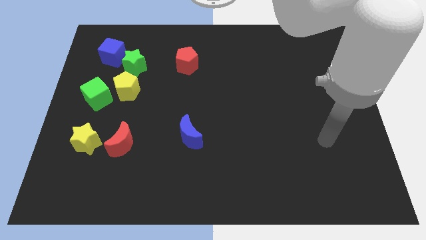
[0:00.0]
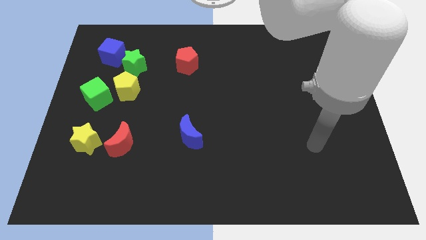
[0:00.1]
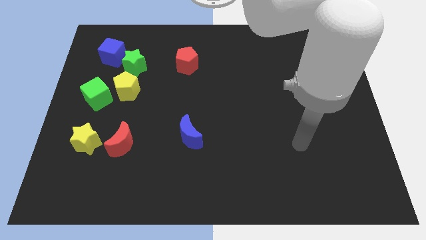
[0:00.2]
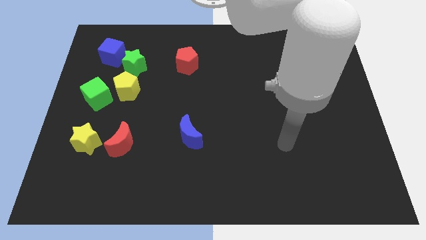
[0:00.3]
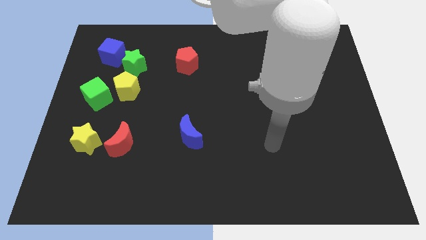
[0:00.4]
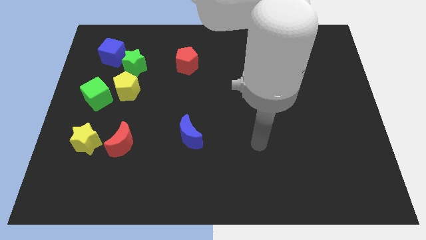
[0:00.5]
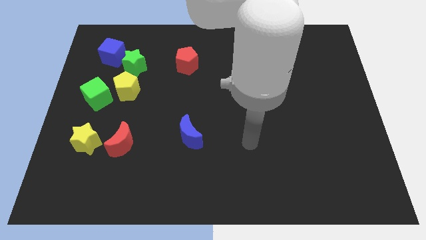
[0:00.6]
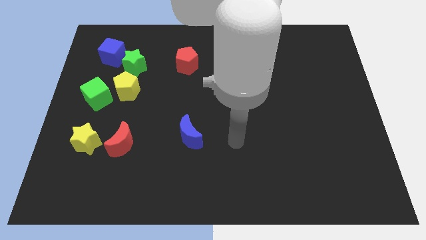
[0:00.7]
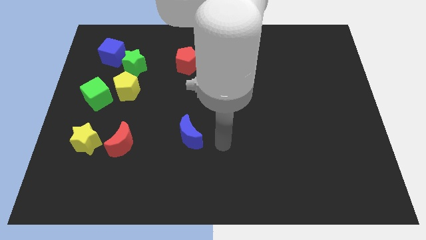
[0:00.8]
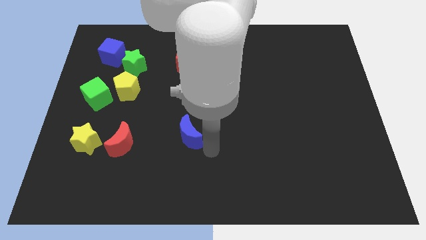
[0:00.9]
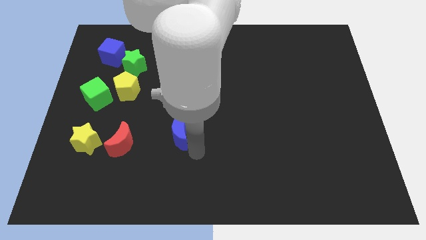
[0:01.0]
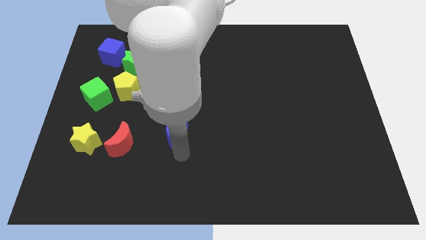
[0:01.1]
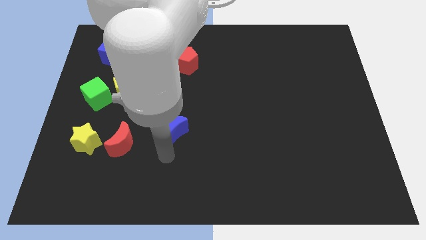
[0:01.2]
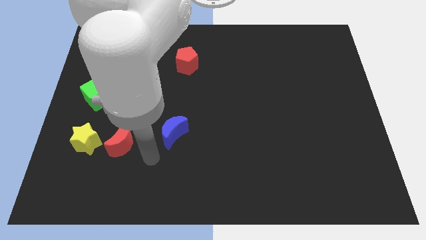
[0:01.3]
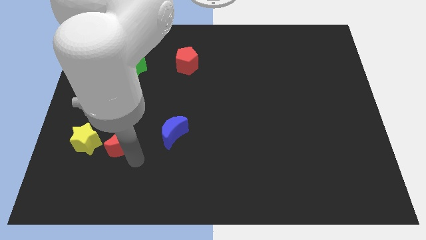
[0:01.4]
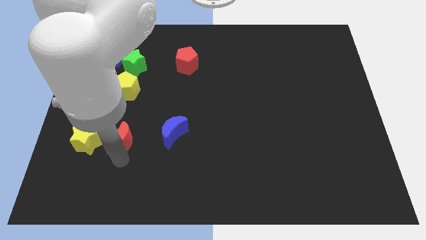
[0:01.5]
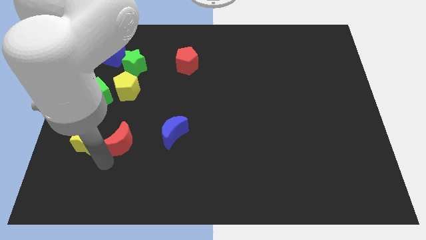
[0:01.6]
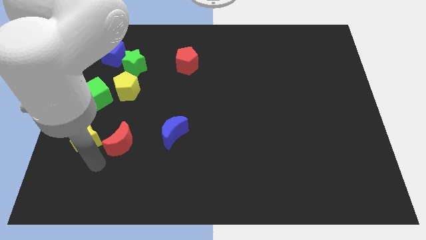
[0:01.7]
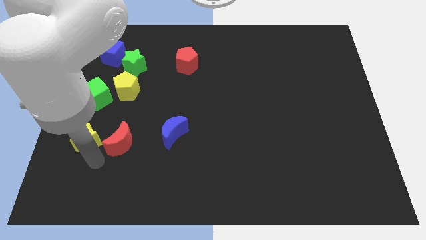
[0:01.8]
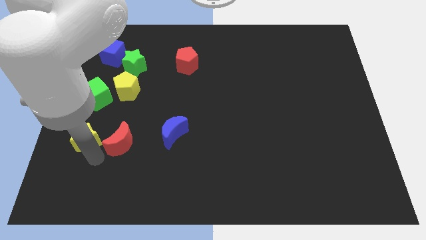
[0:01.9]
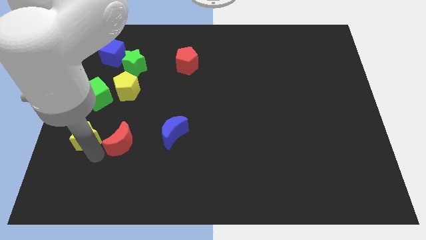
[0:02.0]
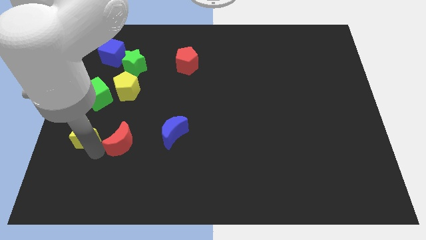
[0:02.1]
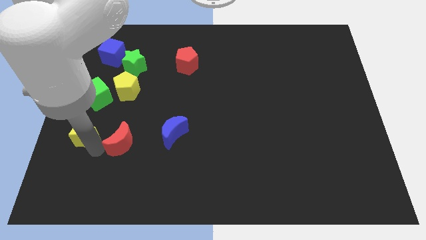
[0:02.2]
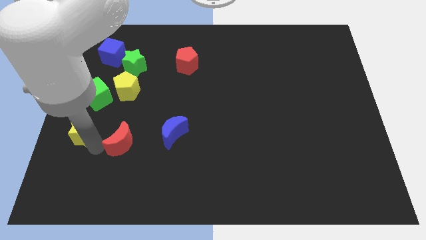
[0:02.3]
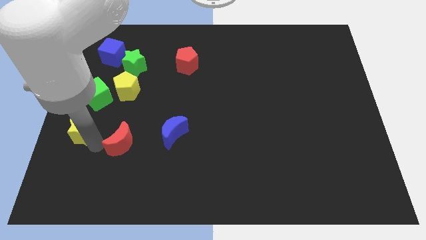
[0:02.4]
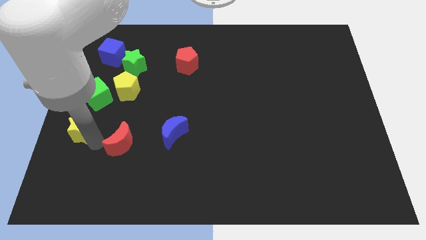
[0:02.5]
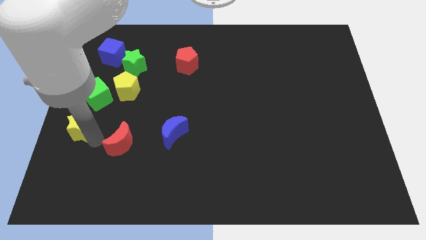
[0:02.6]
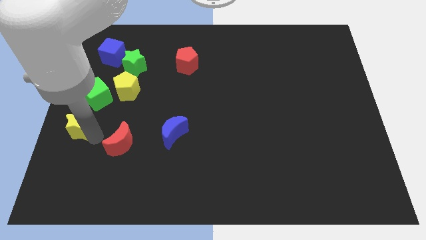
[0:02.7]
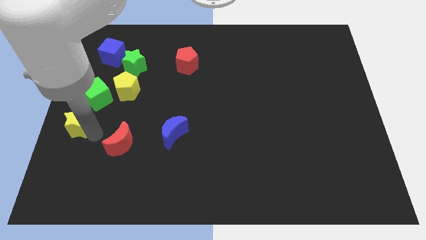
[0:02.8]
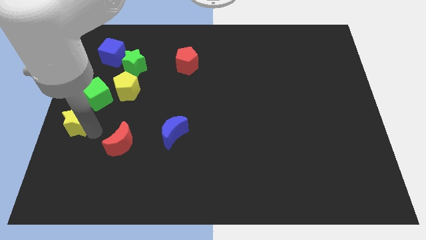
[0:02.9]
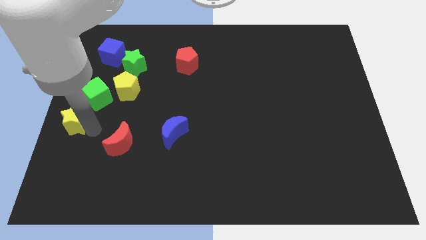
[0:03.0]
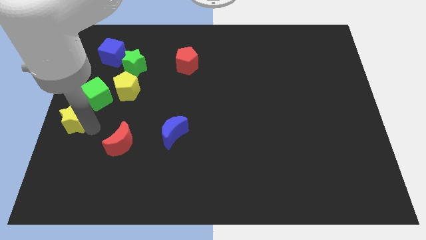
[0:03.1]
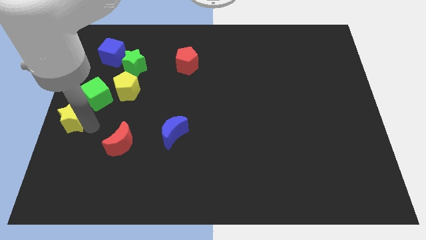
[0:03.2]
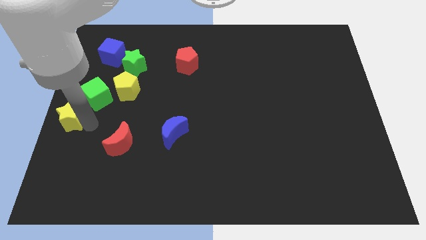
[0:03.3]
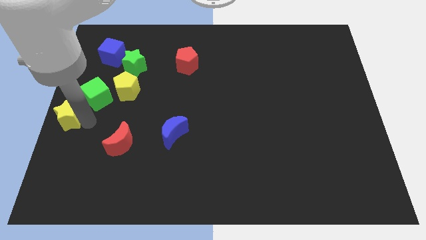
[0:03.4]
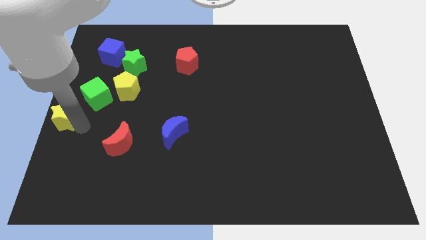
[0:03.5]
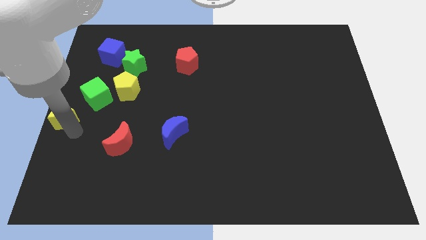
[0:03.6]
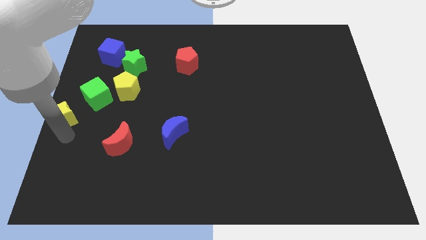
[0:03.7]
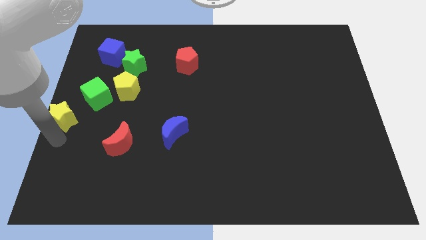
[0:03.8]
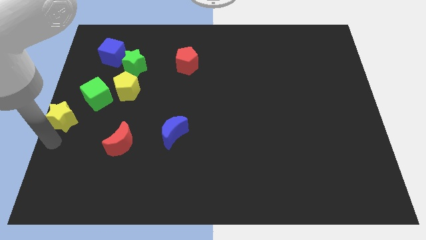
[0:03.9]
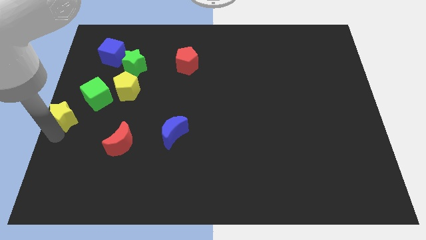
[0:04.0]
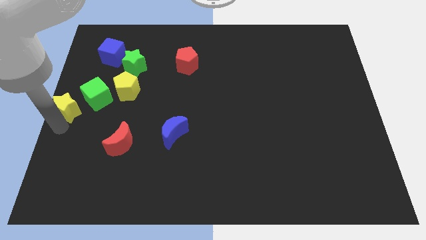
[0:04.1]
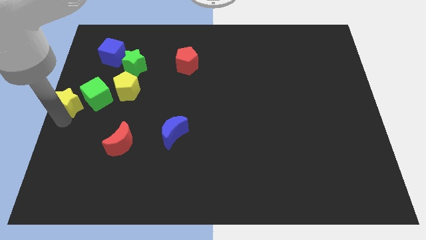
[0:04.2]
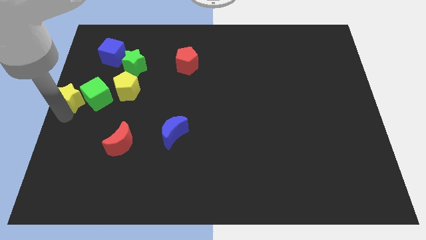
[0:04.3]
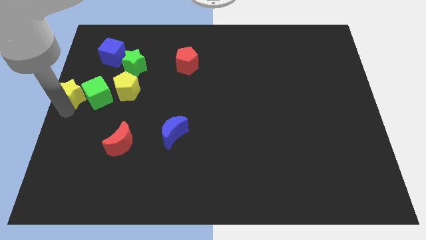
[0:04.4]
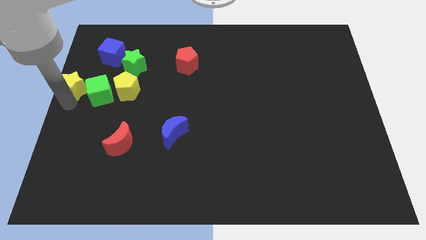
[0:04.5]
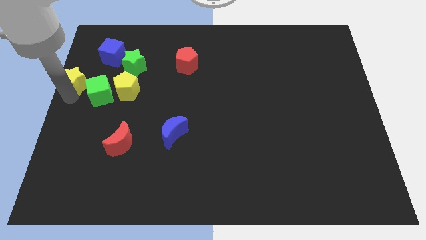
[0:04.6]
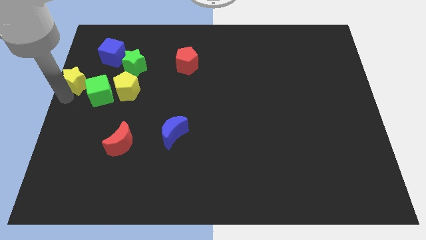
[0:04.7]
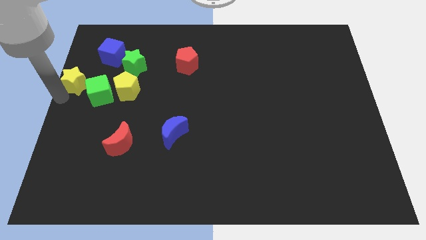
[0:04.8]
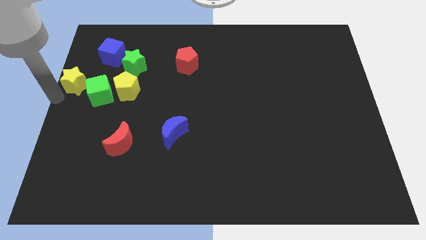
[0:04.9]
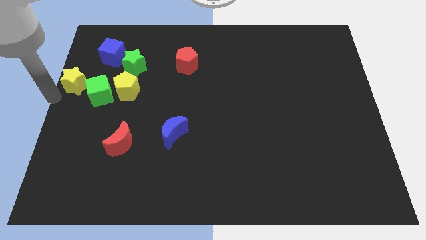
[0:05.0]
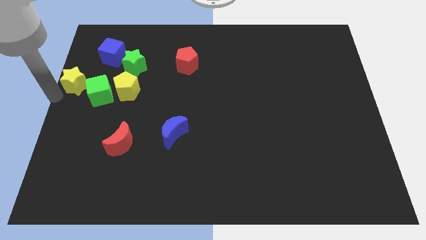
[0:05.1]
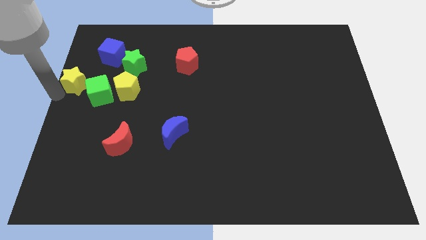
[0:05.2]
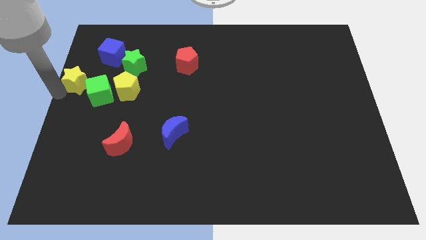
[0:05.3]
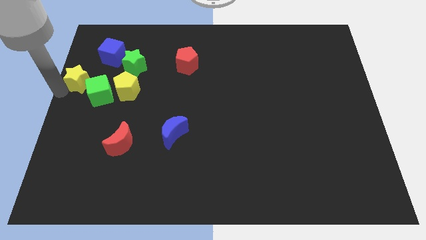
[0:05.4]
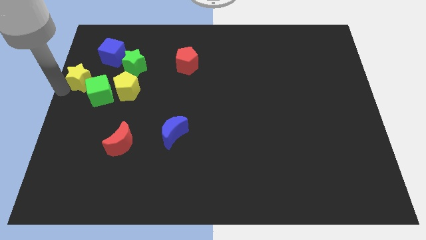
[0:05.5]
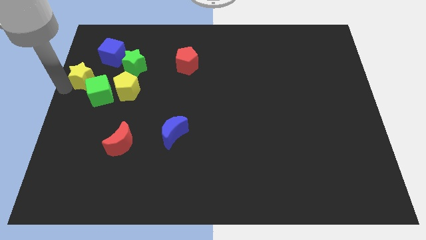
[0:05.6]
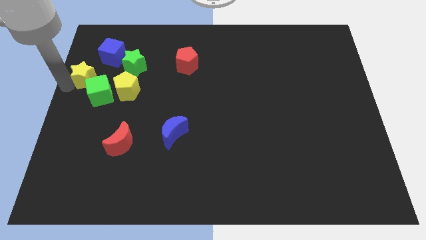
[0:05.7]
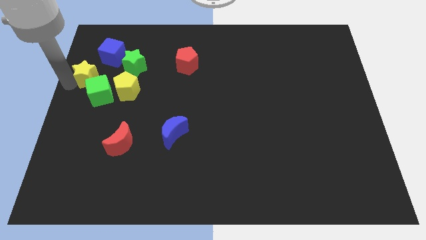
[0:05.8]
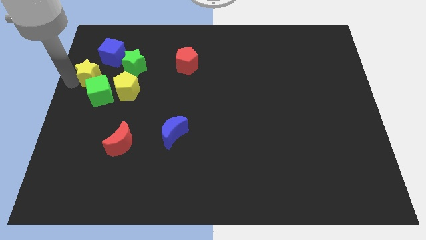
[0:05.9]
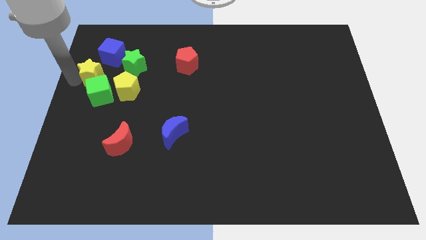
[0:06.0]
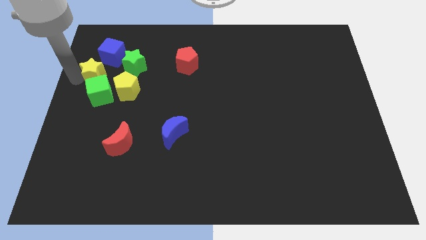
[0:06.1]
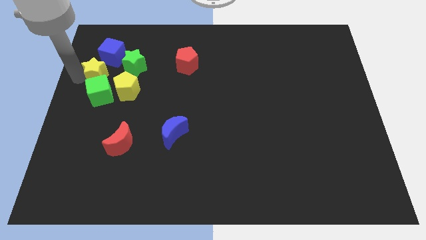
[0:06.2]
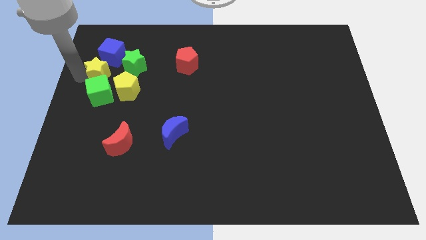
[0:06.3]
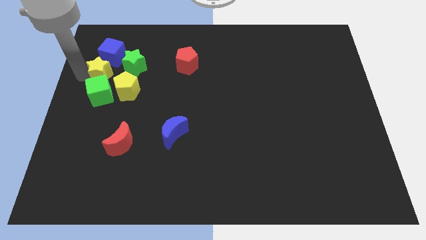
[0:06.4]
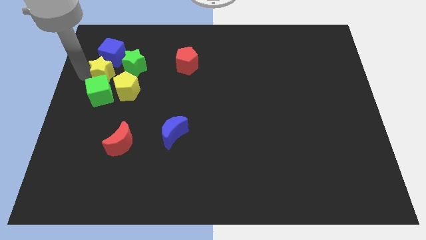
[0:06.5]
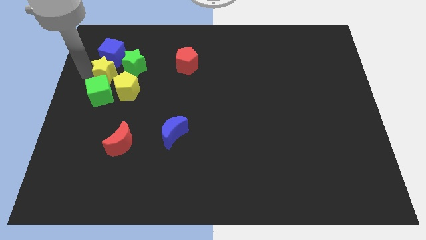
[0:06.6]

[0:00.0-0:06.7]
move the yellow star towards the blue cube

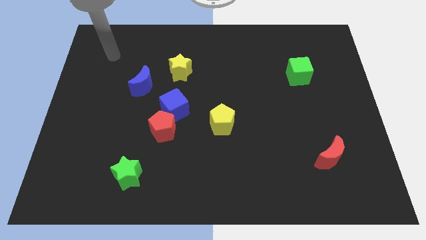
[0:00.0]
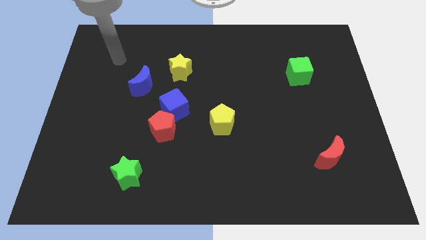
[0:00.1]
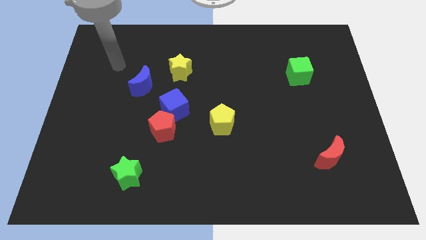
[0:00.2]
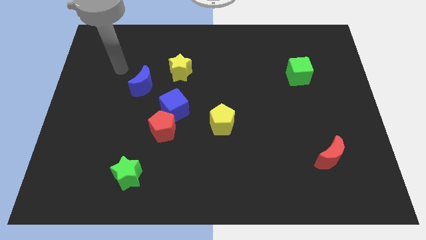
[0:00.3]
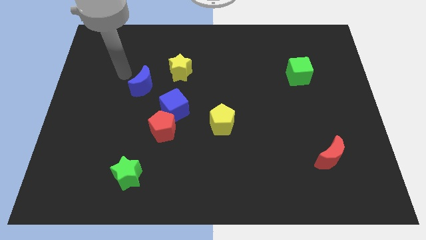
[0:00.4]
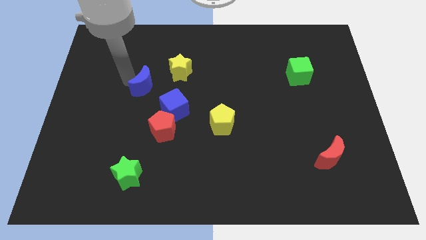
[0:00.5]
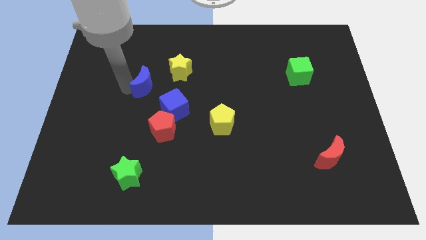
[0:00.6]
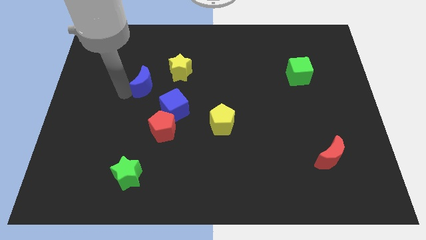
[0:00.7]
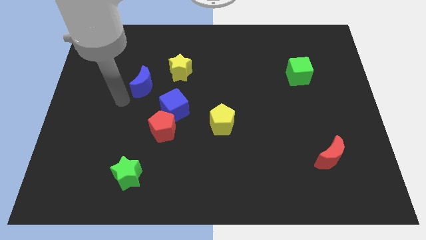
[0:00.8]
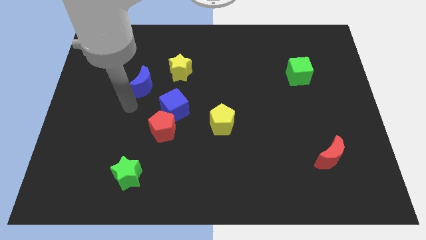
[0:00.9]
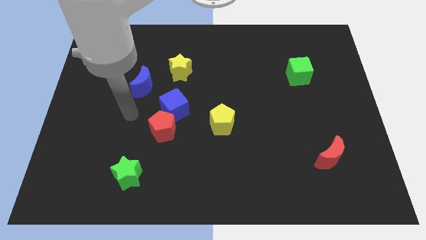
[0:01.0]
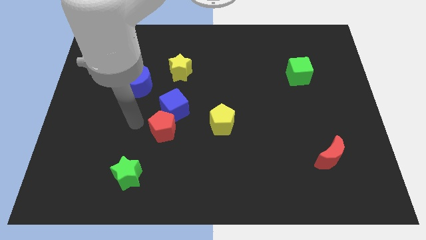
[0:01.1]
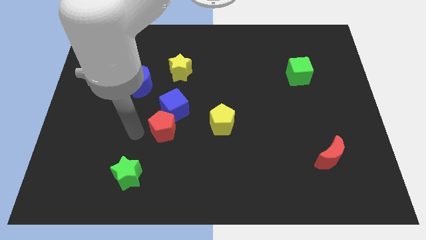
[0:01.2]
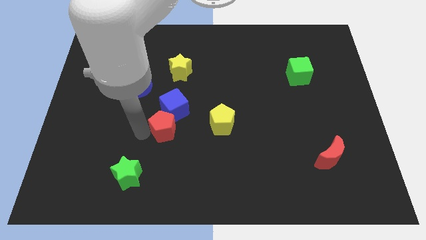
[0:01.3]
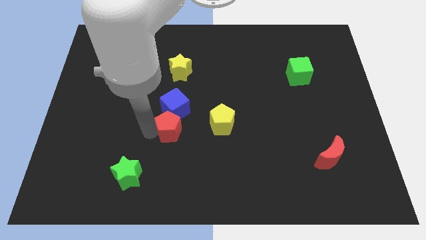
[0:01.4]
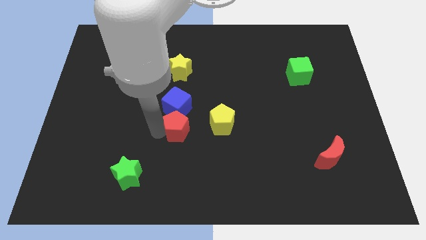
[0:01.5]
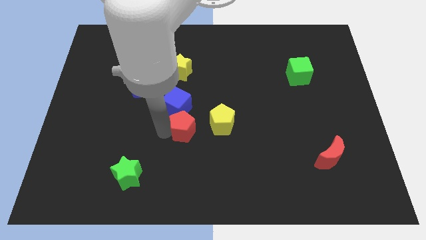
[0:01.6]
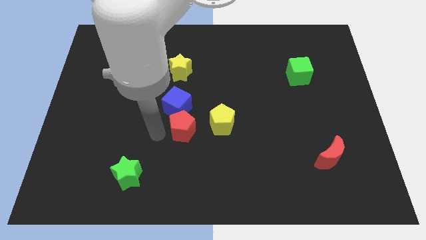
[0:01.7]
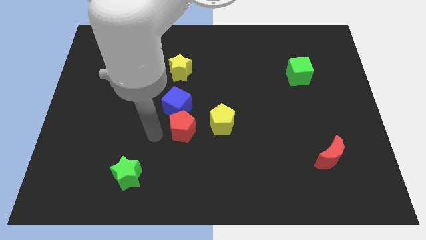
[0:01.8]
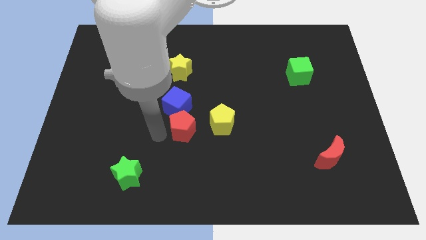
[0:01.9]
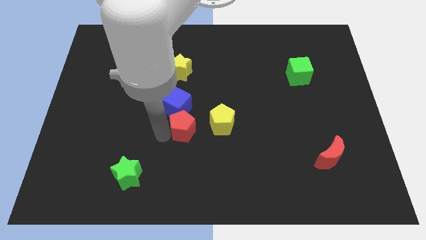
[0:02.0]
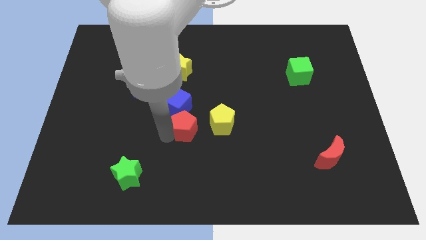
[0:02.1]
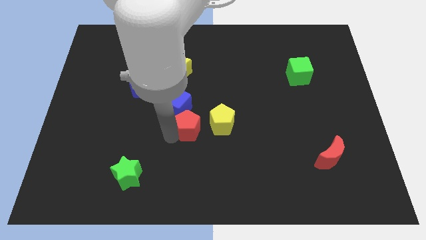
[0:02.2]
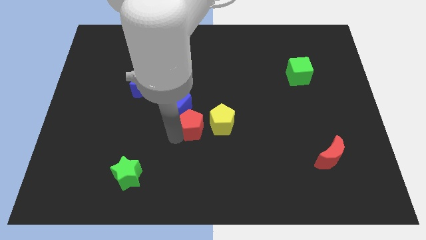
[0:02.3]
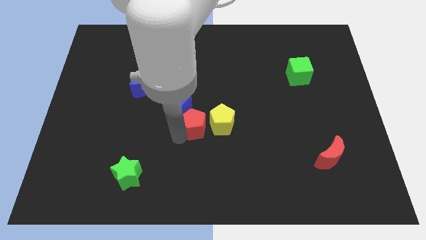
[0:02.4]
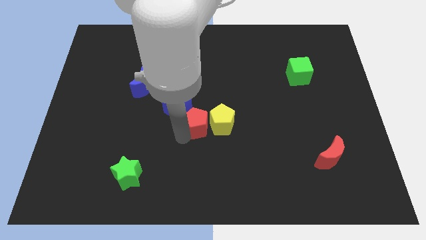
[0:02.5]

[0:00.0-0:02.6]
slide the red pentagon towards the yellow pentagon
